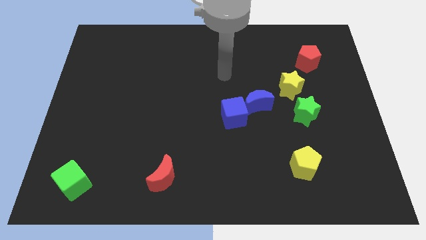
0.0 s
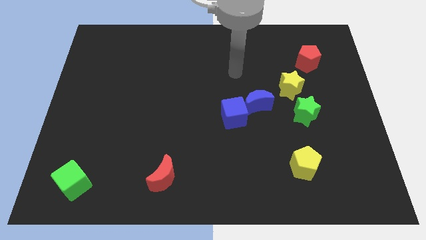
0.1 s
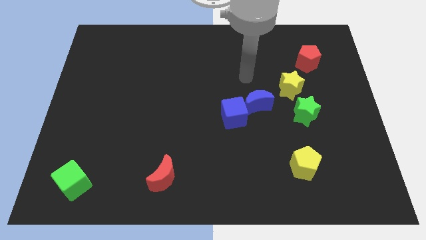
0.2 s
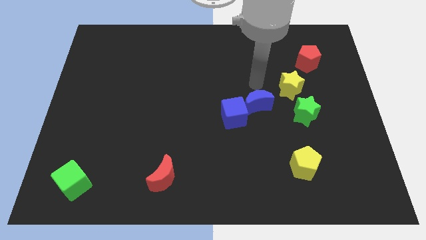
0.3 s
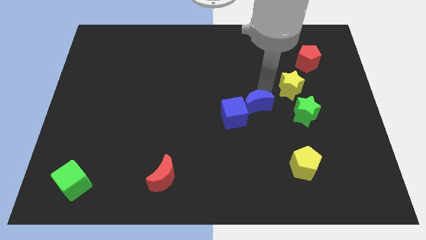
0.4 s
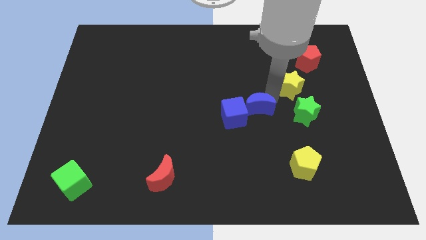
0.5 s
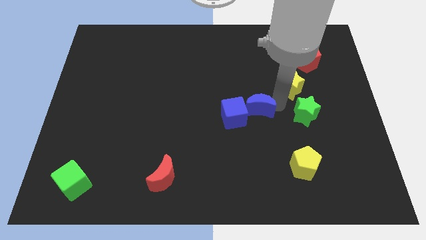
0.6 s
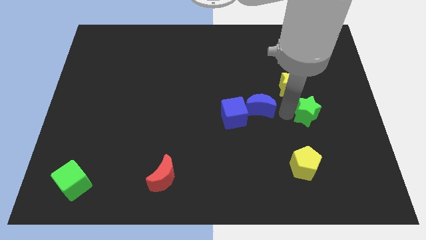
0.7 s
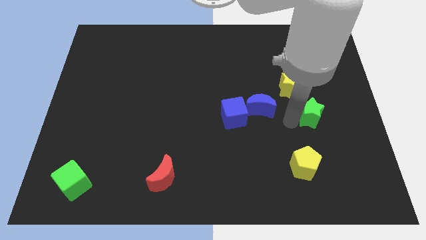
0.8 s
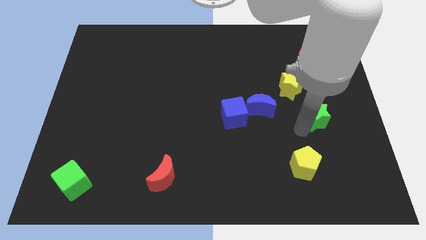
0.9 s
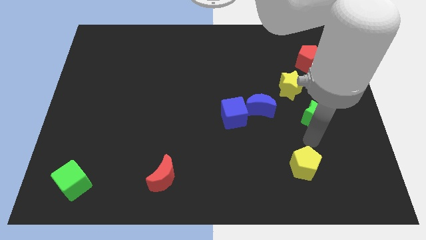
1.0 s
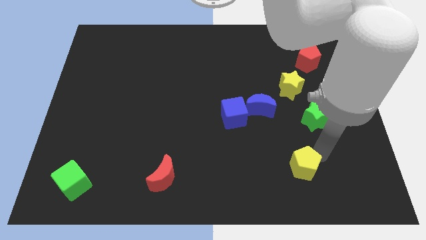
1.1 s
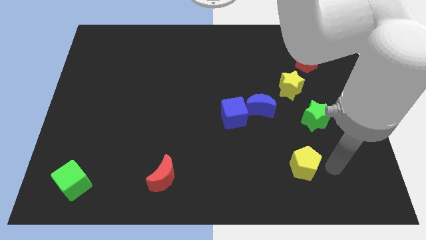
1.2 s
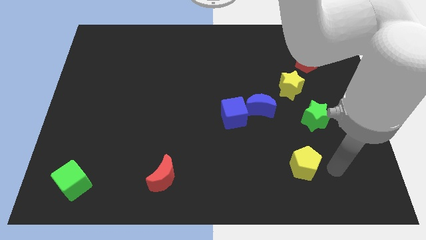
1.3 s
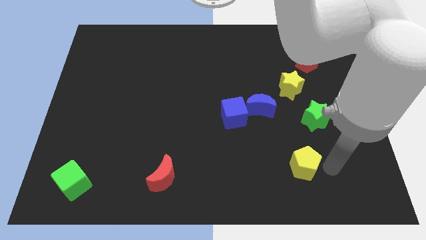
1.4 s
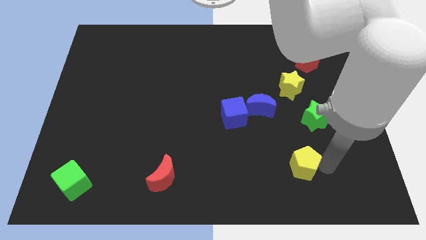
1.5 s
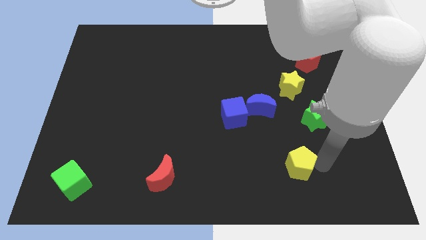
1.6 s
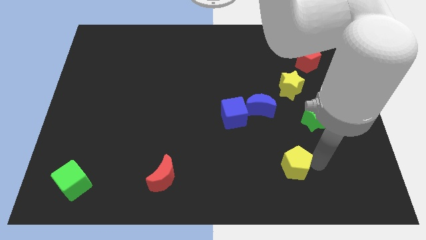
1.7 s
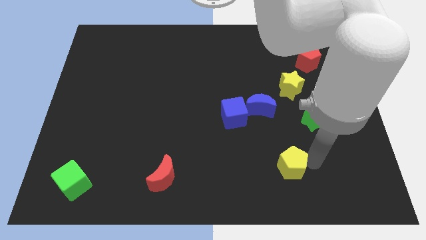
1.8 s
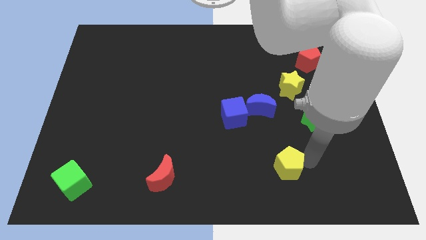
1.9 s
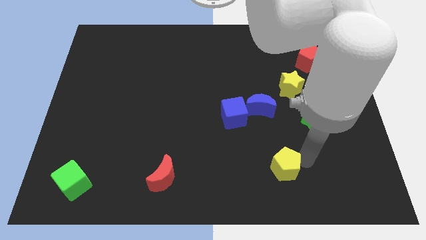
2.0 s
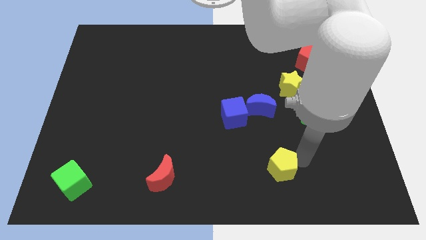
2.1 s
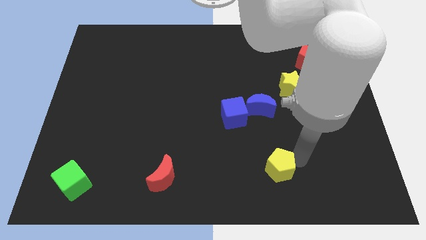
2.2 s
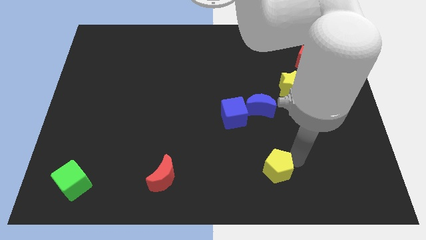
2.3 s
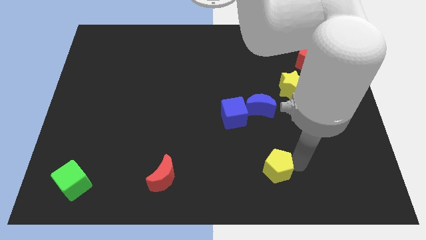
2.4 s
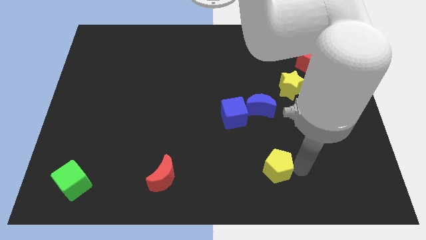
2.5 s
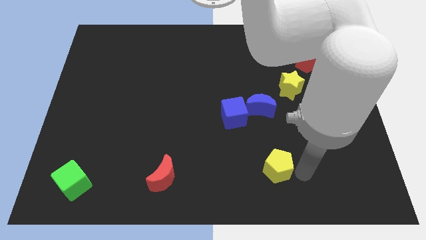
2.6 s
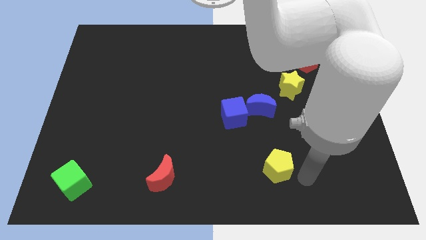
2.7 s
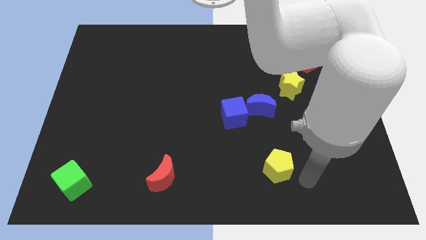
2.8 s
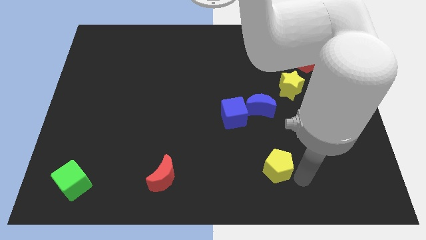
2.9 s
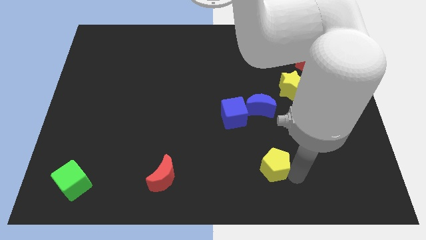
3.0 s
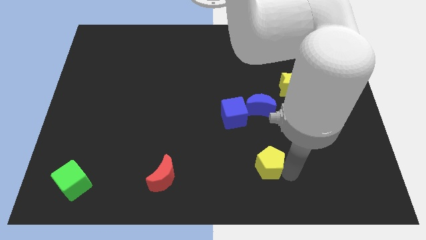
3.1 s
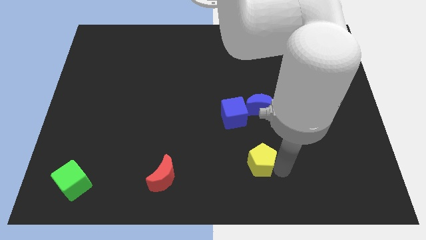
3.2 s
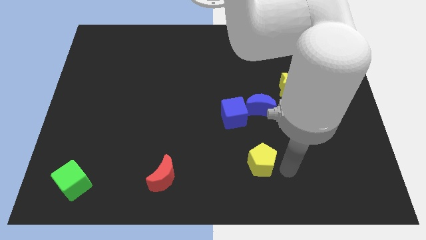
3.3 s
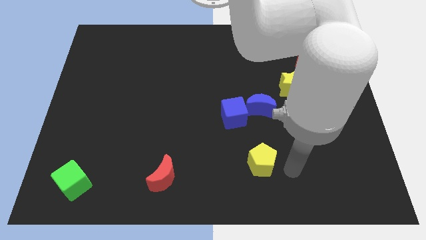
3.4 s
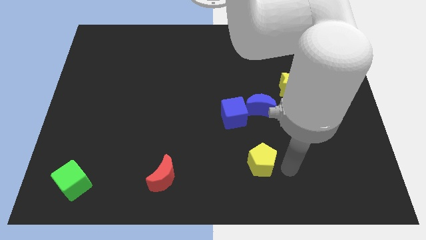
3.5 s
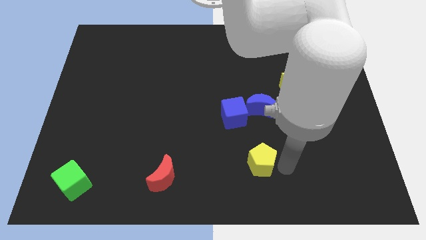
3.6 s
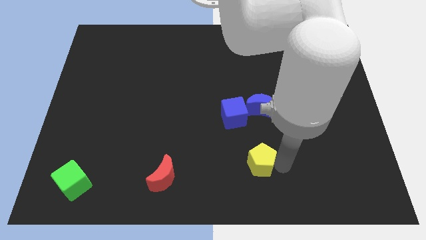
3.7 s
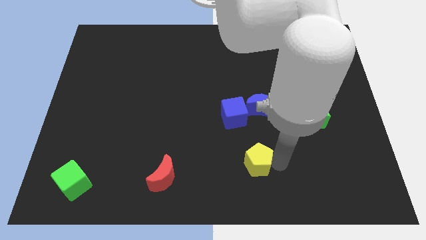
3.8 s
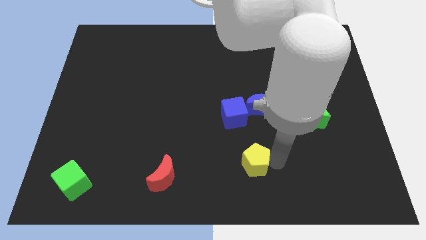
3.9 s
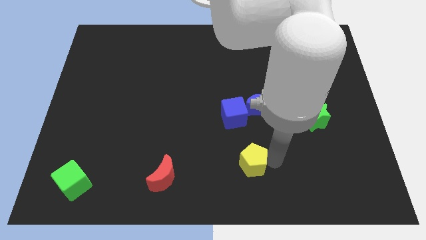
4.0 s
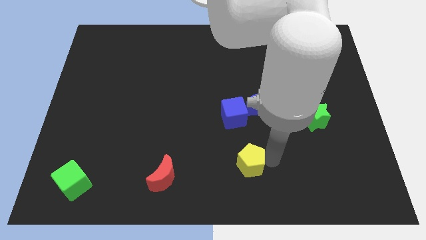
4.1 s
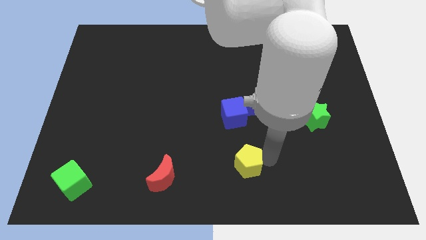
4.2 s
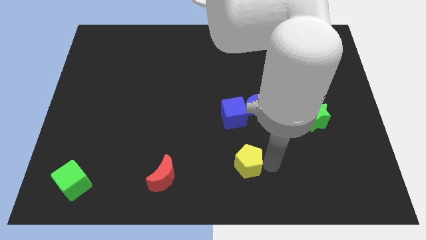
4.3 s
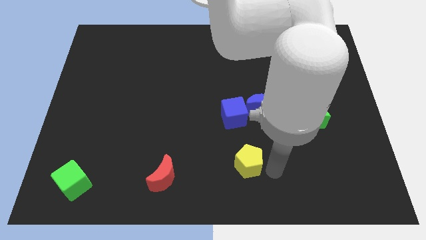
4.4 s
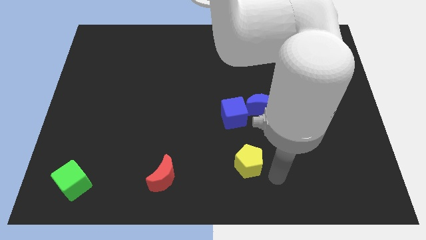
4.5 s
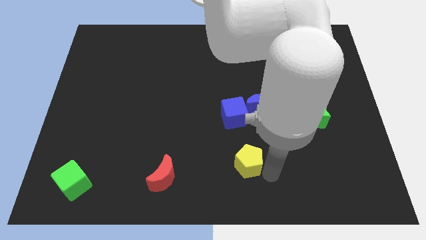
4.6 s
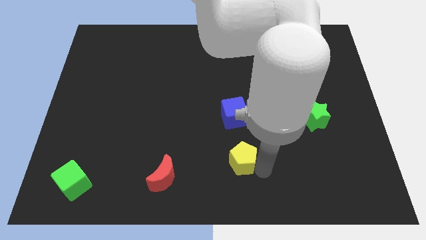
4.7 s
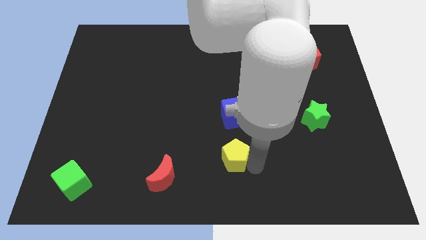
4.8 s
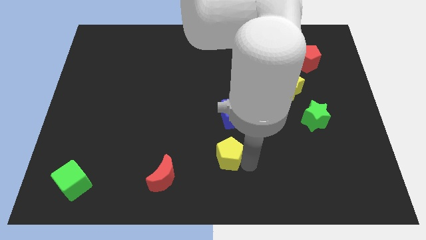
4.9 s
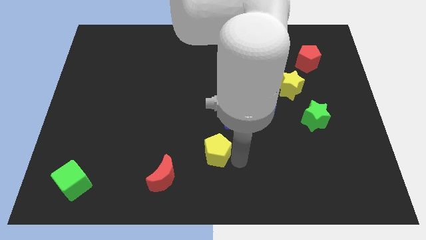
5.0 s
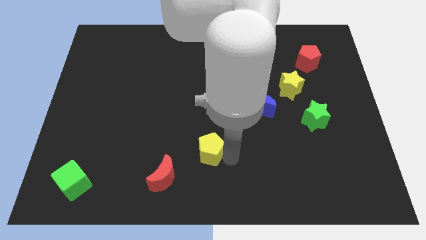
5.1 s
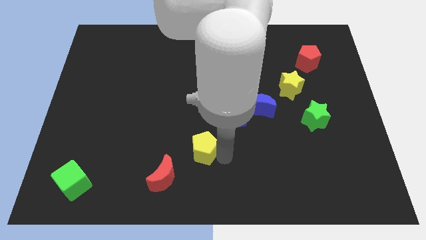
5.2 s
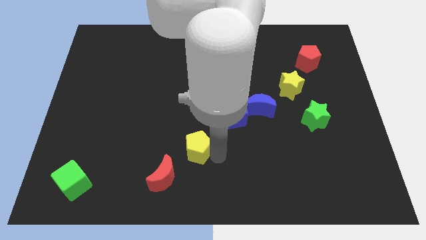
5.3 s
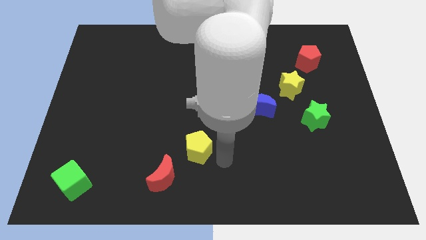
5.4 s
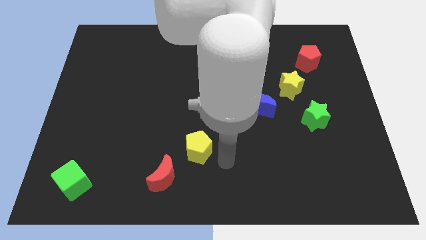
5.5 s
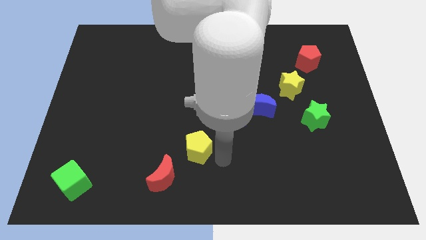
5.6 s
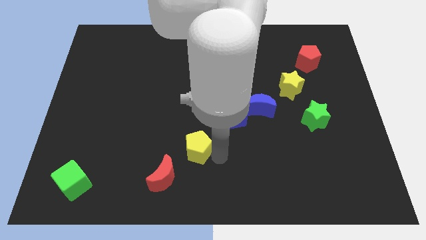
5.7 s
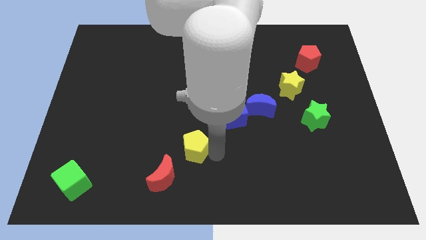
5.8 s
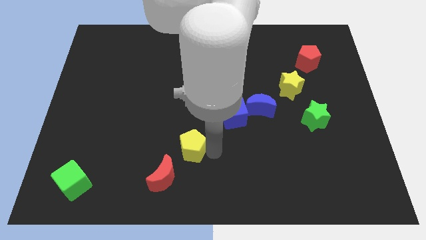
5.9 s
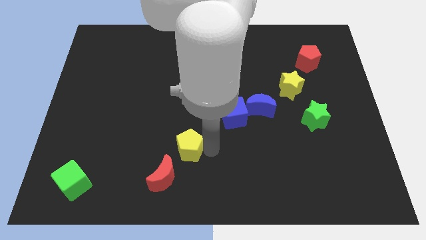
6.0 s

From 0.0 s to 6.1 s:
move the yellow pentagon to the top of the red moon
